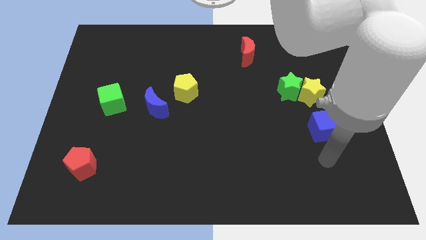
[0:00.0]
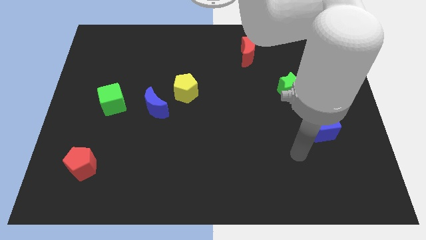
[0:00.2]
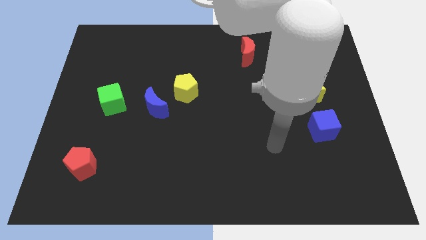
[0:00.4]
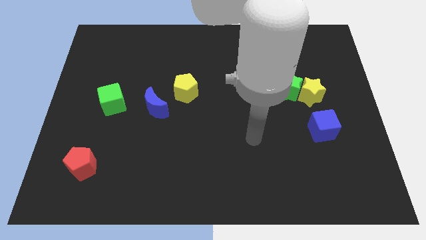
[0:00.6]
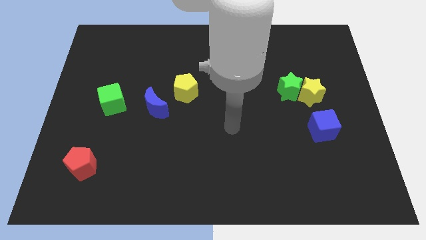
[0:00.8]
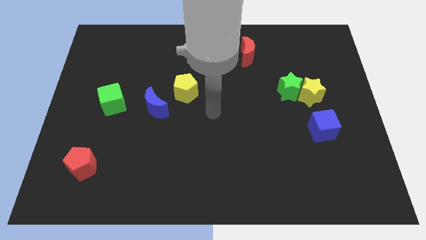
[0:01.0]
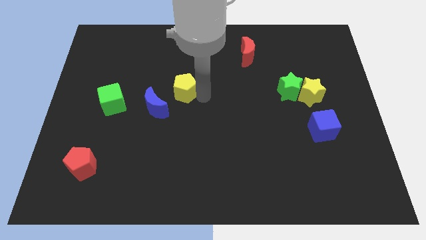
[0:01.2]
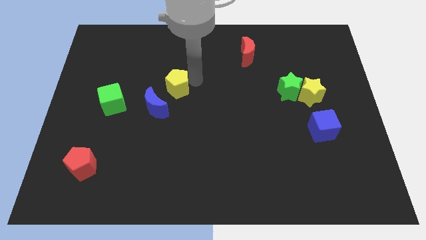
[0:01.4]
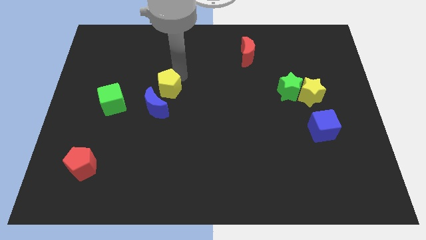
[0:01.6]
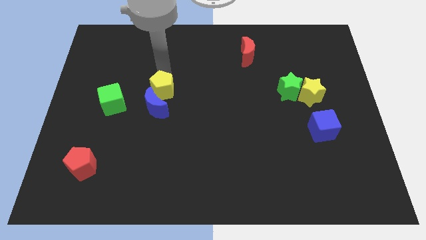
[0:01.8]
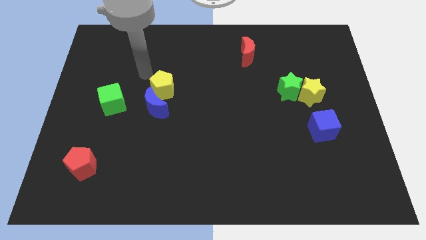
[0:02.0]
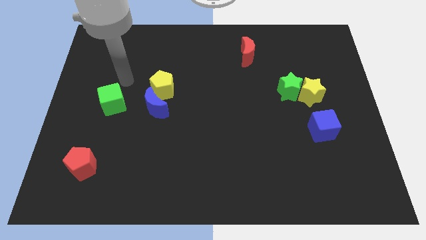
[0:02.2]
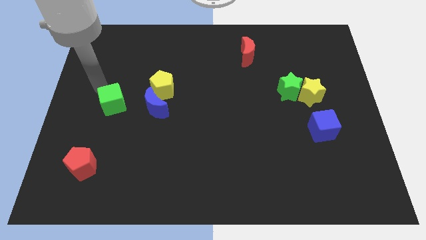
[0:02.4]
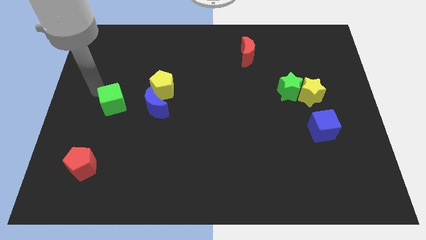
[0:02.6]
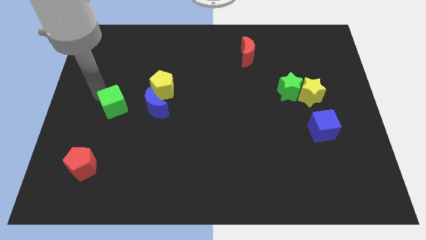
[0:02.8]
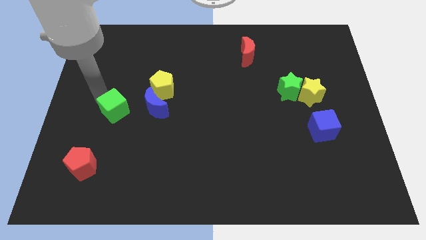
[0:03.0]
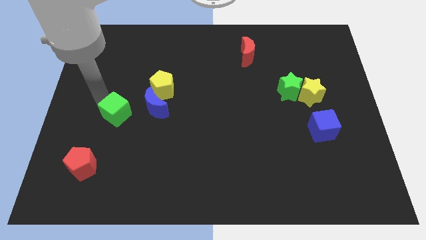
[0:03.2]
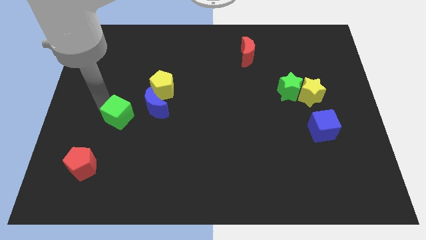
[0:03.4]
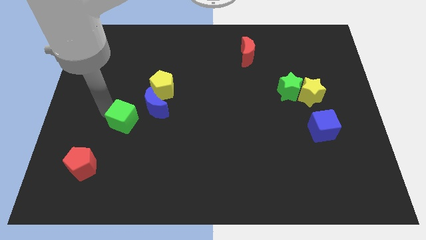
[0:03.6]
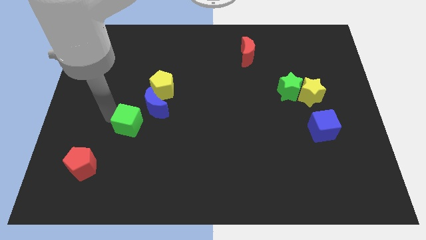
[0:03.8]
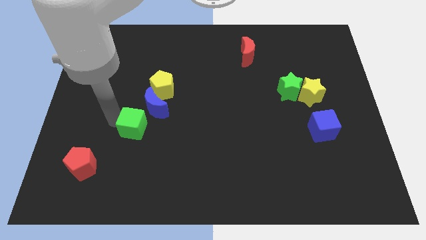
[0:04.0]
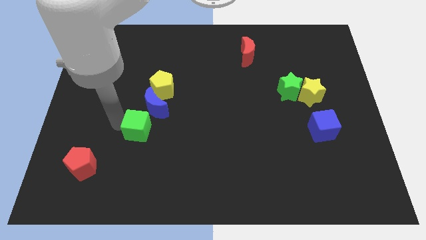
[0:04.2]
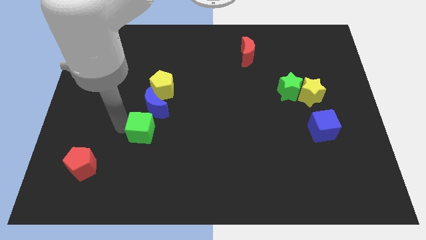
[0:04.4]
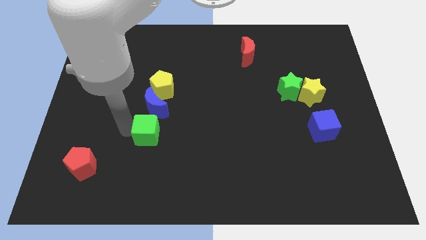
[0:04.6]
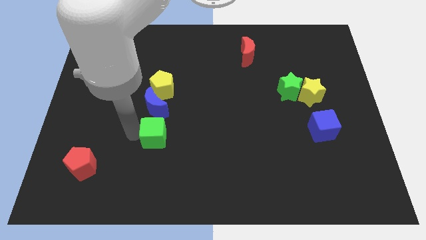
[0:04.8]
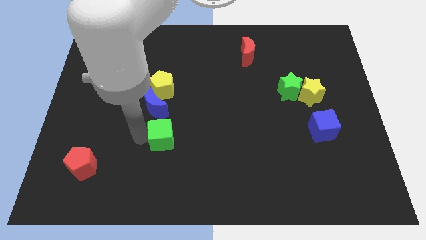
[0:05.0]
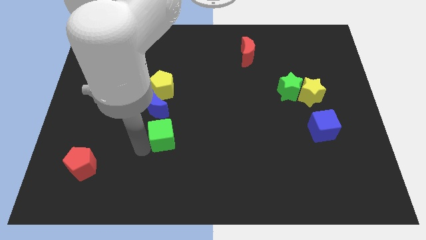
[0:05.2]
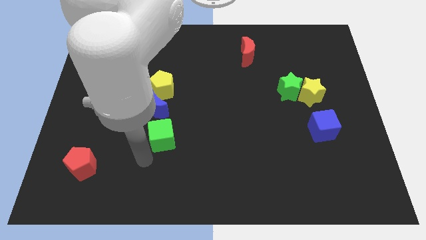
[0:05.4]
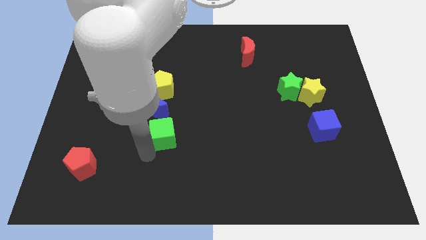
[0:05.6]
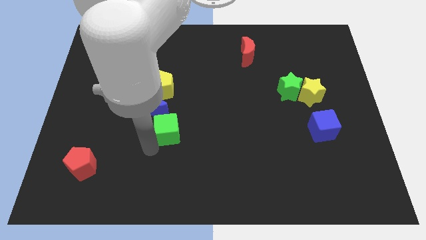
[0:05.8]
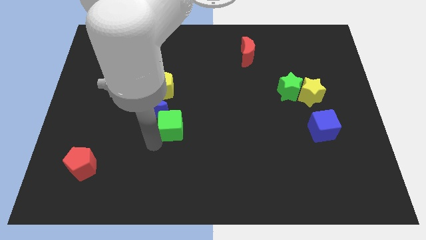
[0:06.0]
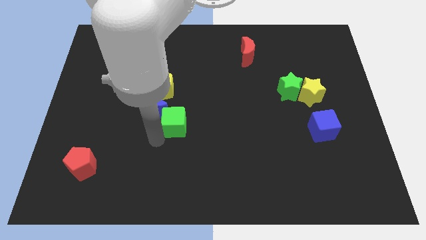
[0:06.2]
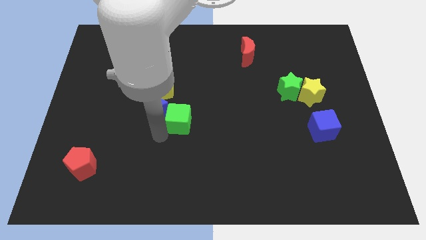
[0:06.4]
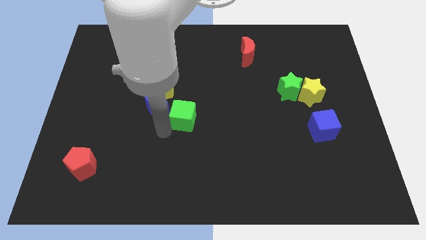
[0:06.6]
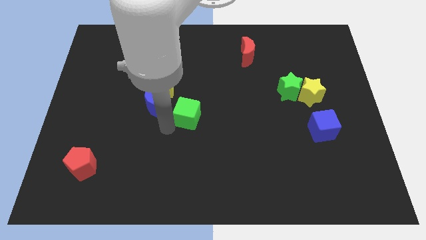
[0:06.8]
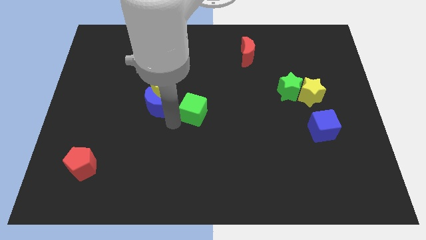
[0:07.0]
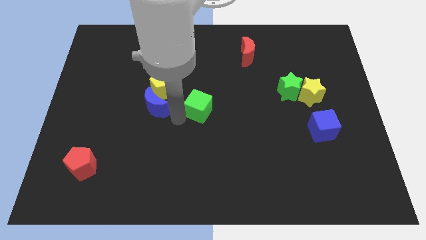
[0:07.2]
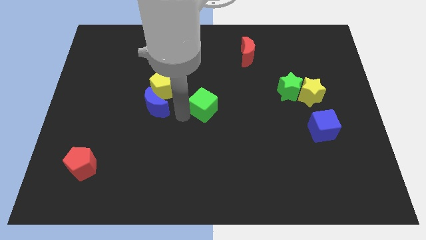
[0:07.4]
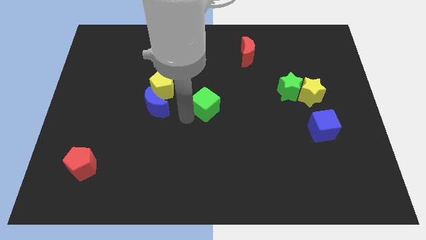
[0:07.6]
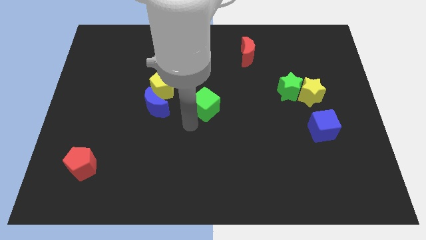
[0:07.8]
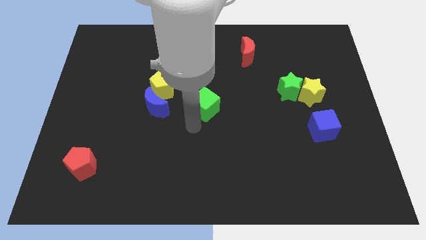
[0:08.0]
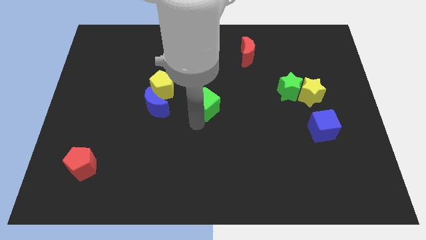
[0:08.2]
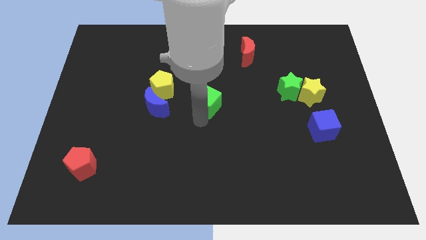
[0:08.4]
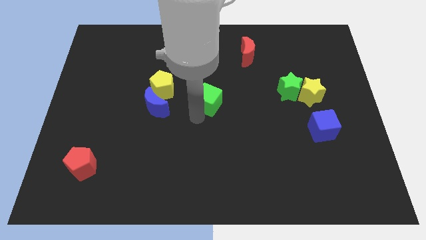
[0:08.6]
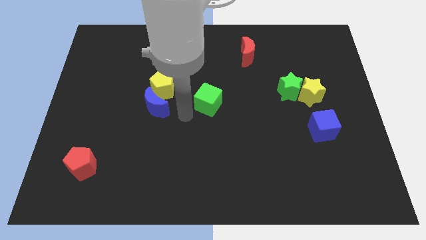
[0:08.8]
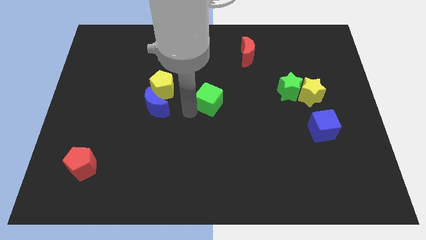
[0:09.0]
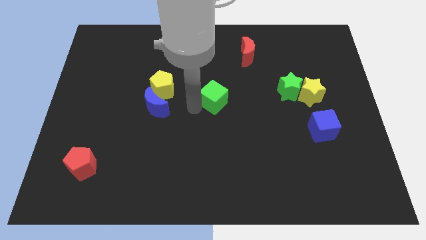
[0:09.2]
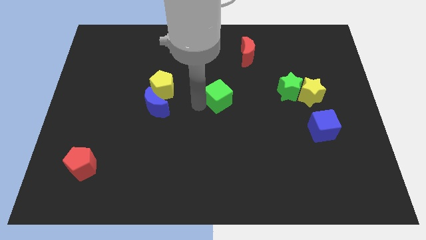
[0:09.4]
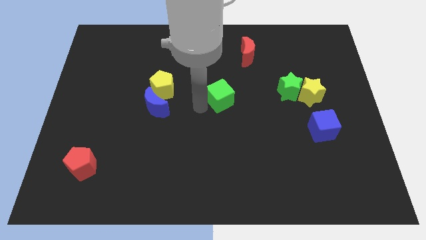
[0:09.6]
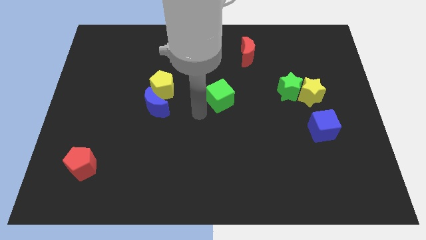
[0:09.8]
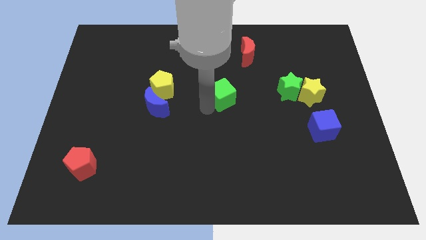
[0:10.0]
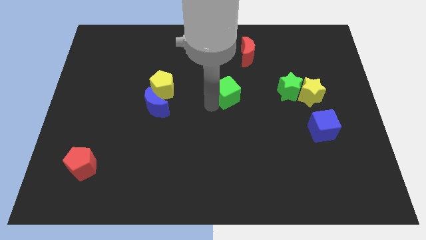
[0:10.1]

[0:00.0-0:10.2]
move the green cube just left of the green star

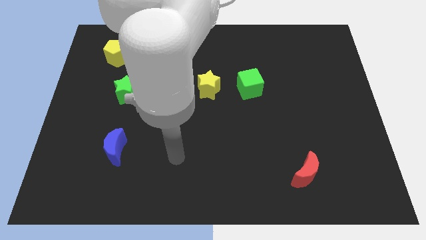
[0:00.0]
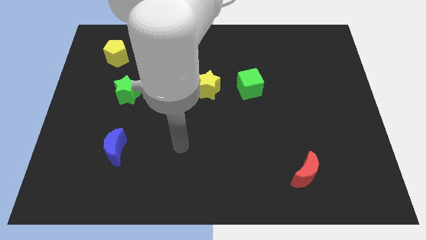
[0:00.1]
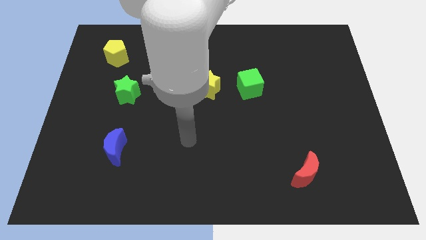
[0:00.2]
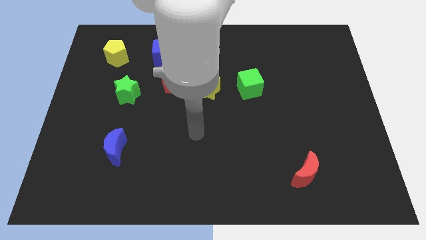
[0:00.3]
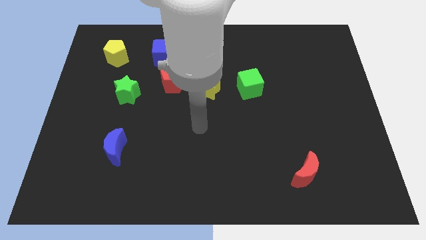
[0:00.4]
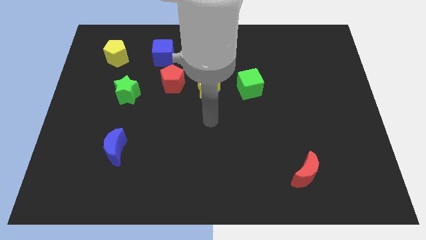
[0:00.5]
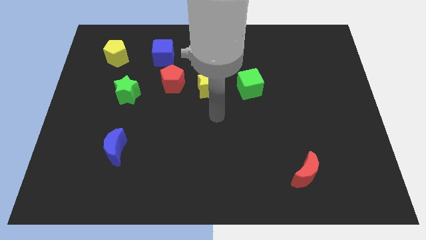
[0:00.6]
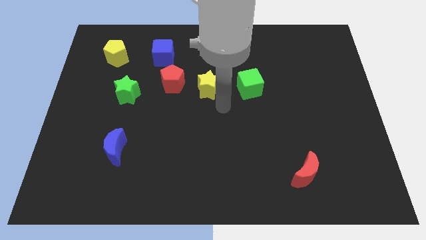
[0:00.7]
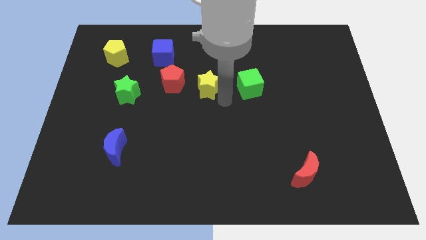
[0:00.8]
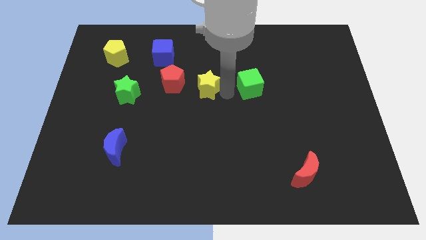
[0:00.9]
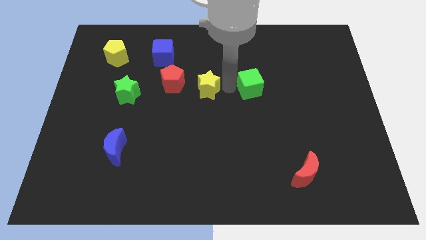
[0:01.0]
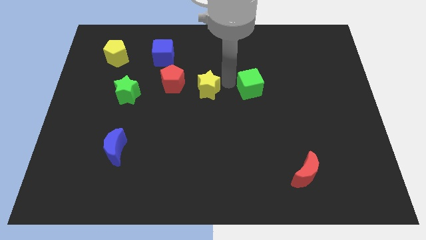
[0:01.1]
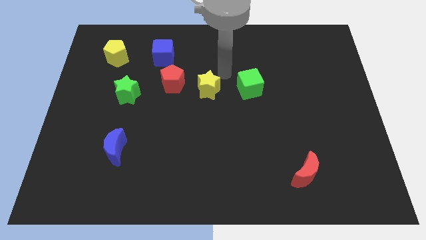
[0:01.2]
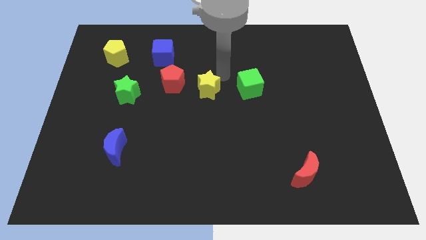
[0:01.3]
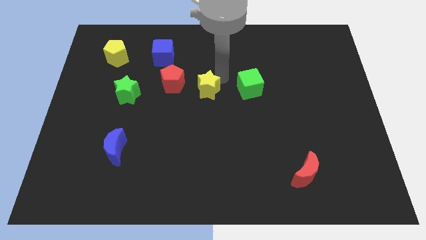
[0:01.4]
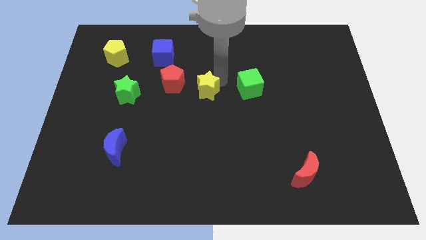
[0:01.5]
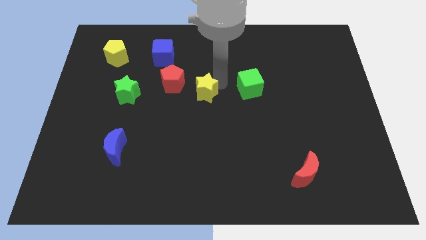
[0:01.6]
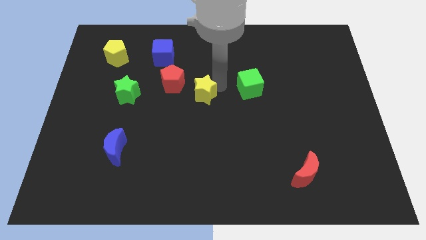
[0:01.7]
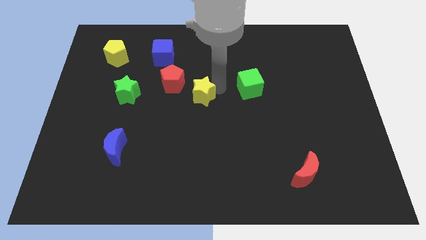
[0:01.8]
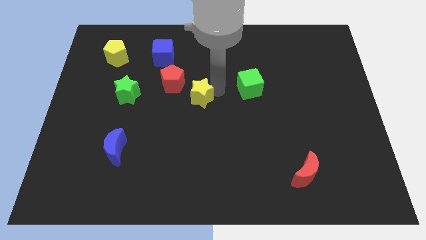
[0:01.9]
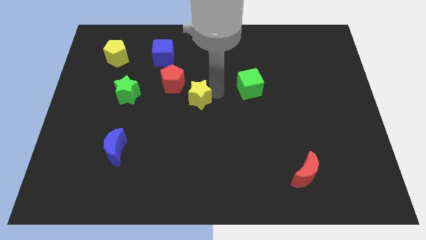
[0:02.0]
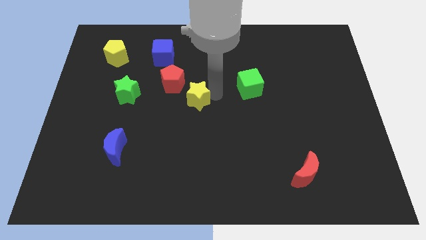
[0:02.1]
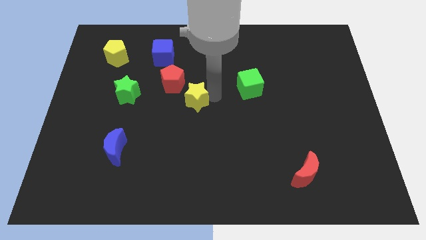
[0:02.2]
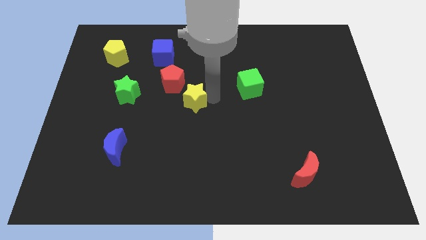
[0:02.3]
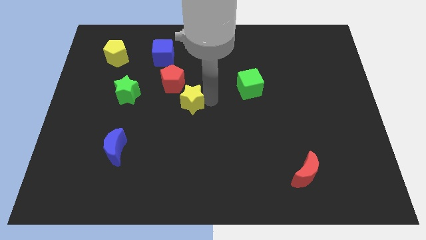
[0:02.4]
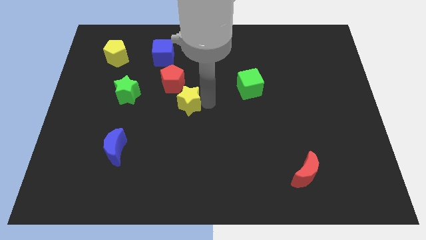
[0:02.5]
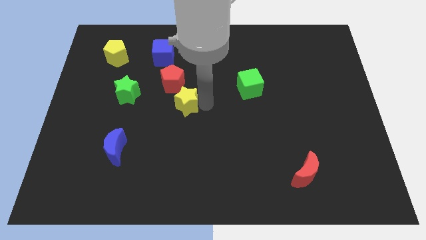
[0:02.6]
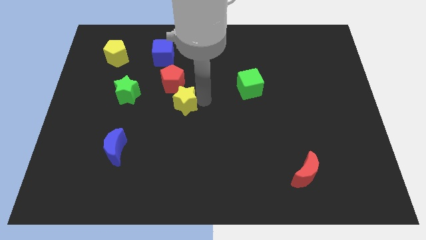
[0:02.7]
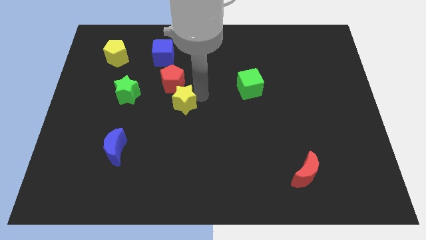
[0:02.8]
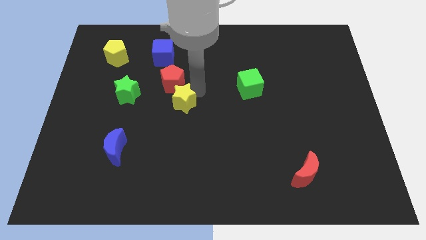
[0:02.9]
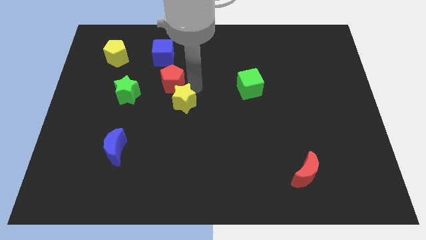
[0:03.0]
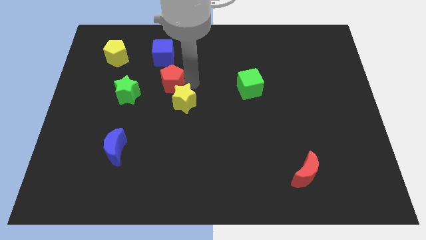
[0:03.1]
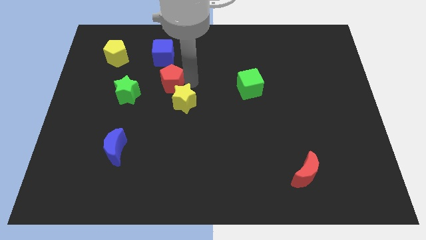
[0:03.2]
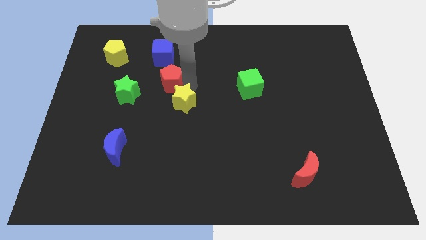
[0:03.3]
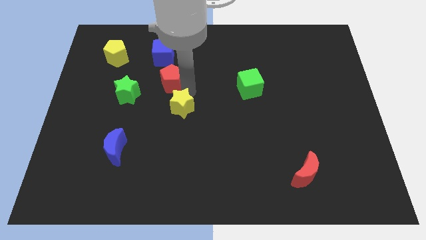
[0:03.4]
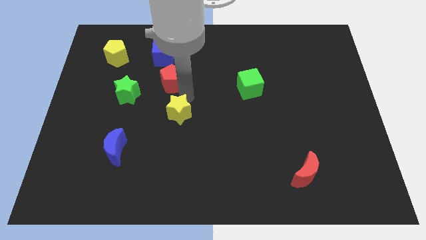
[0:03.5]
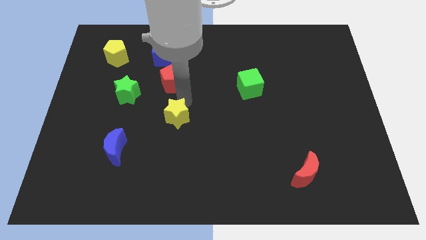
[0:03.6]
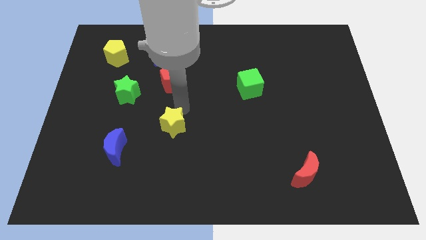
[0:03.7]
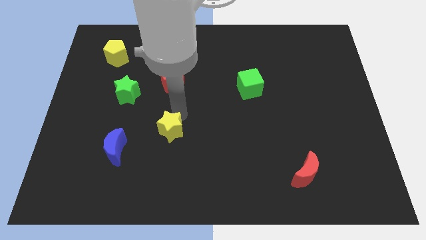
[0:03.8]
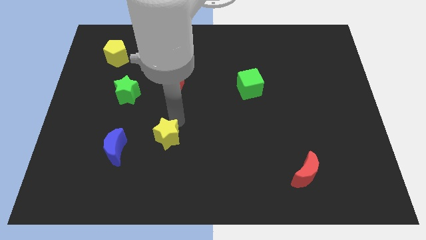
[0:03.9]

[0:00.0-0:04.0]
put the yellow star right of the blue moon
